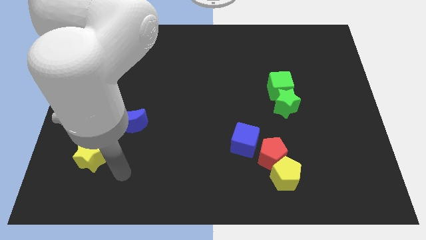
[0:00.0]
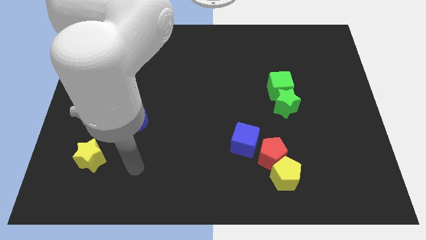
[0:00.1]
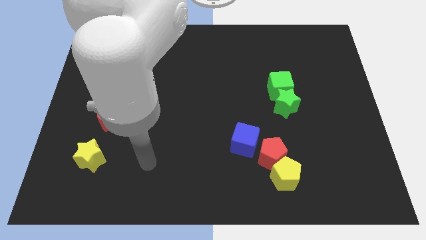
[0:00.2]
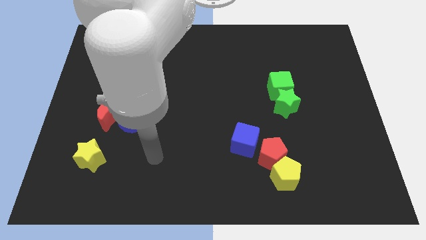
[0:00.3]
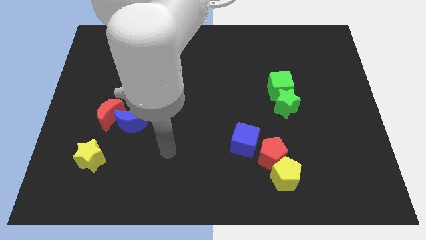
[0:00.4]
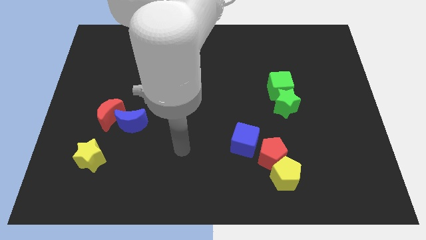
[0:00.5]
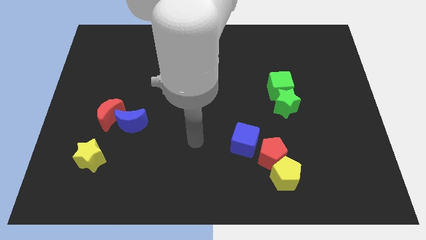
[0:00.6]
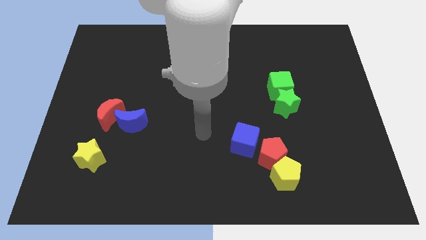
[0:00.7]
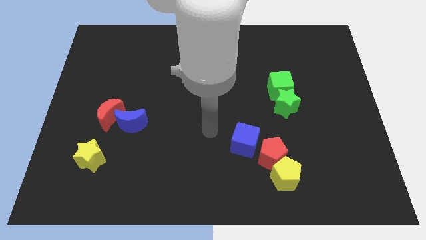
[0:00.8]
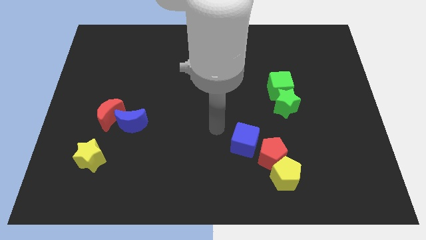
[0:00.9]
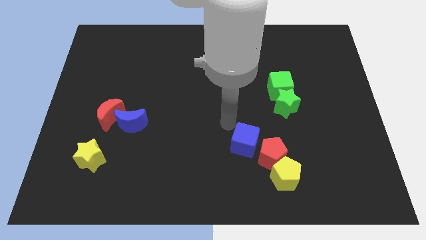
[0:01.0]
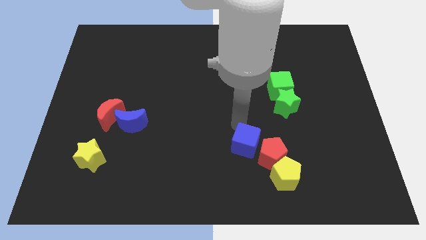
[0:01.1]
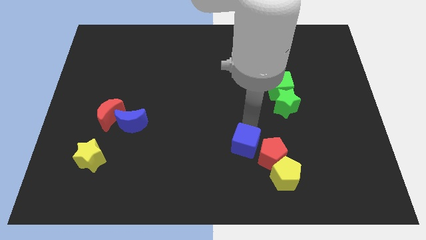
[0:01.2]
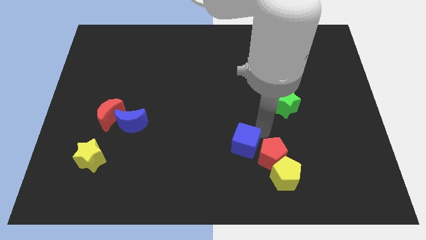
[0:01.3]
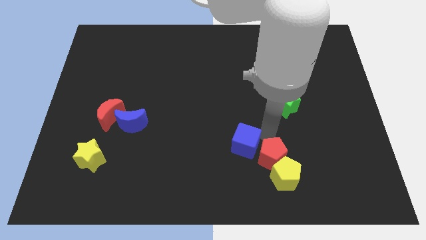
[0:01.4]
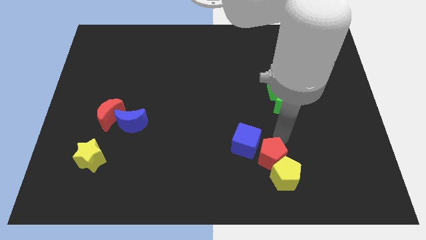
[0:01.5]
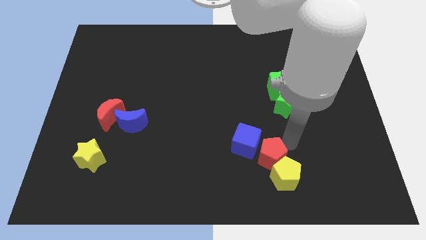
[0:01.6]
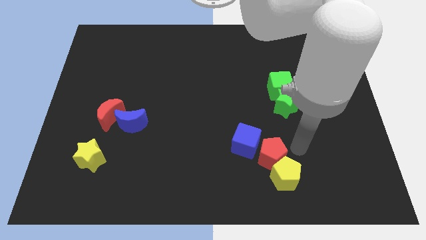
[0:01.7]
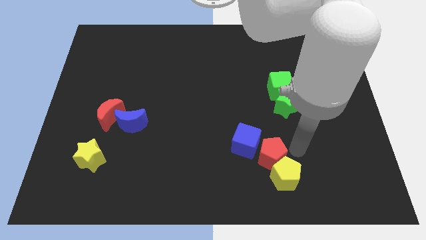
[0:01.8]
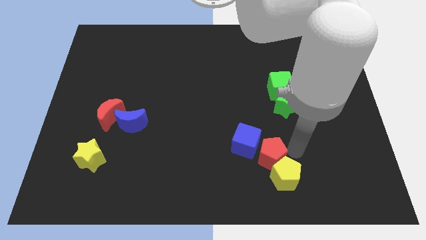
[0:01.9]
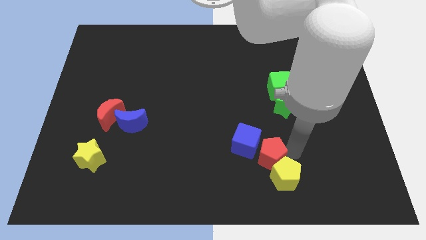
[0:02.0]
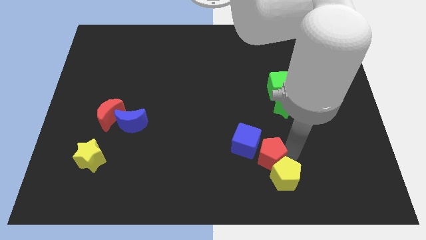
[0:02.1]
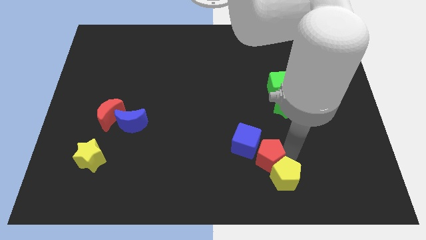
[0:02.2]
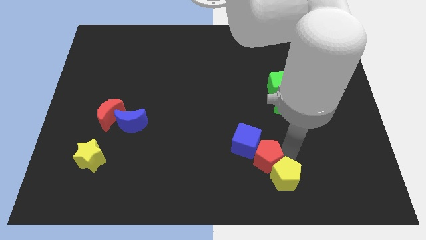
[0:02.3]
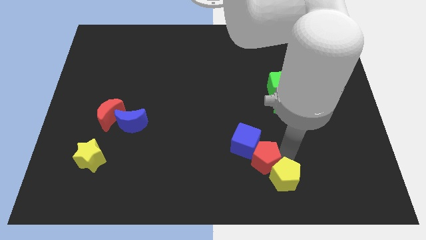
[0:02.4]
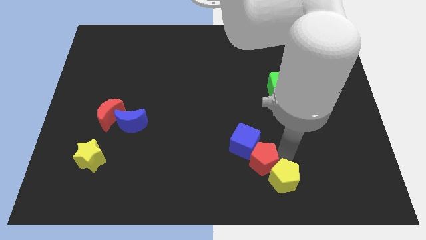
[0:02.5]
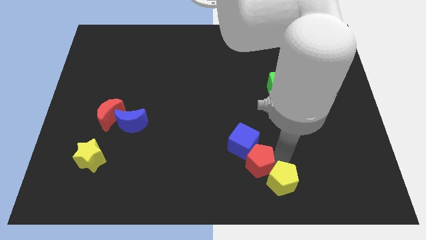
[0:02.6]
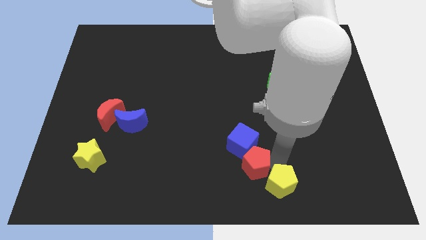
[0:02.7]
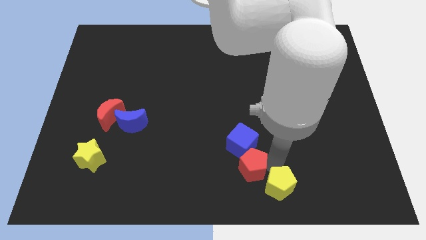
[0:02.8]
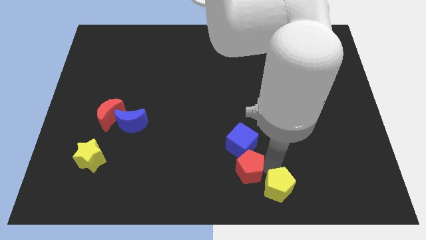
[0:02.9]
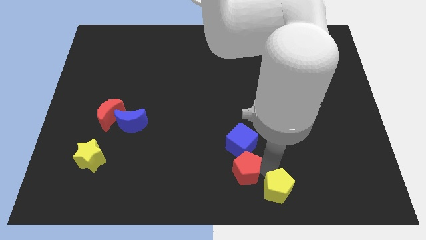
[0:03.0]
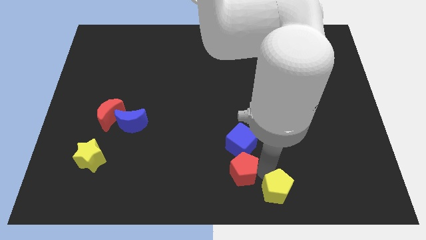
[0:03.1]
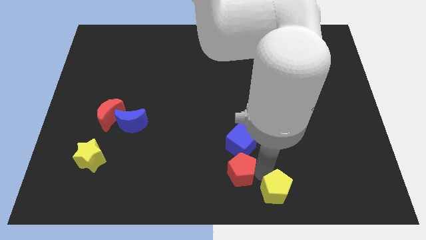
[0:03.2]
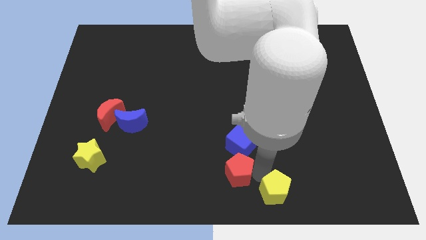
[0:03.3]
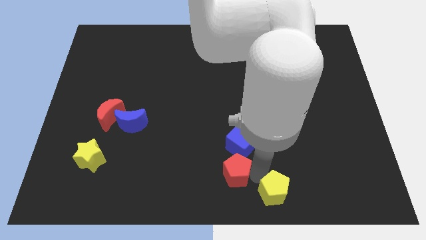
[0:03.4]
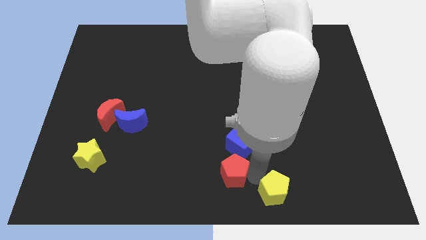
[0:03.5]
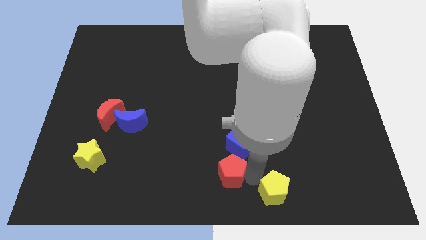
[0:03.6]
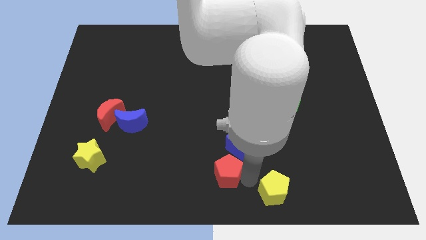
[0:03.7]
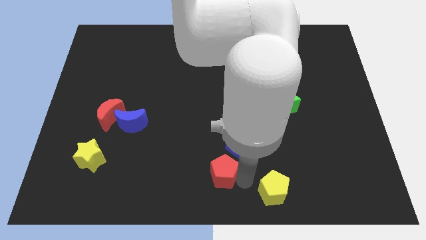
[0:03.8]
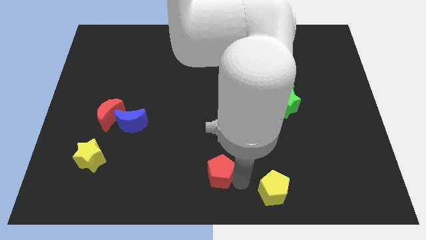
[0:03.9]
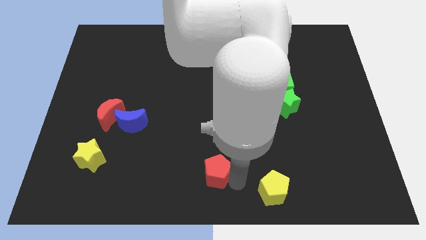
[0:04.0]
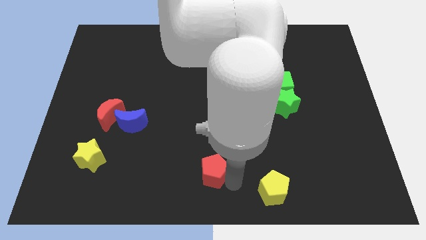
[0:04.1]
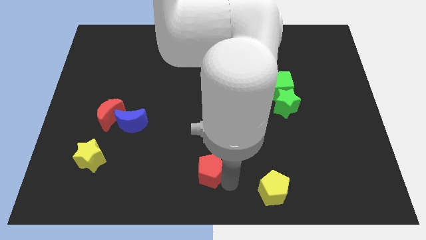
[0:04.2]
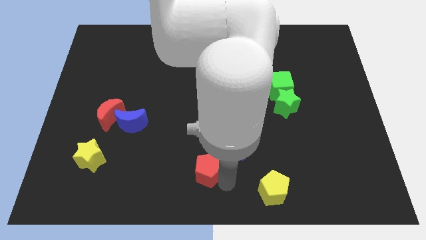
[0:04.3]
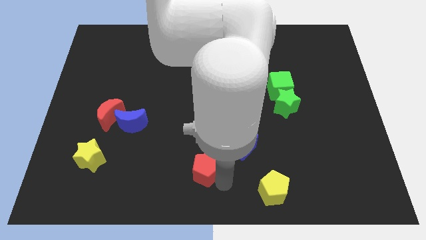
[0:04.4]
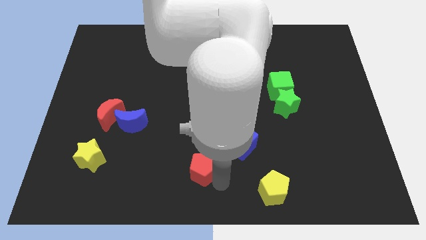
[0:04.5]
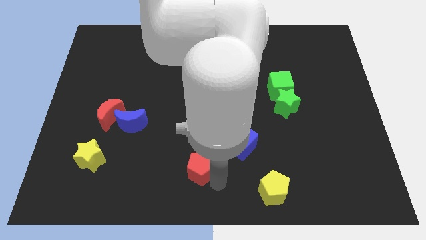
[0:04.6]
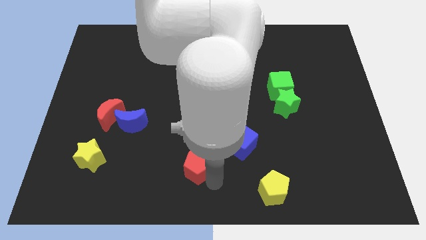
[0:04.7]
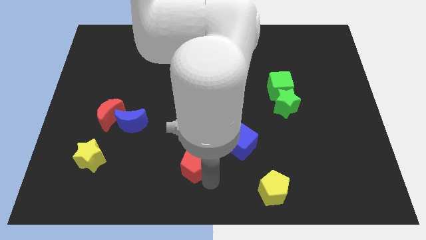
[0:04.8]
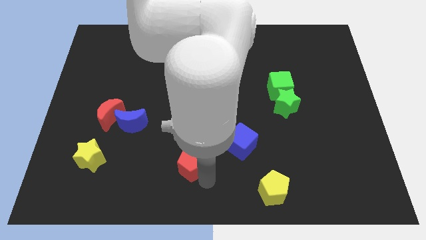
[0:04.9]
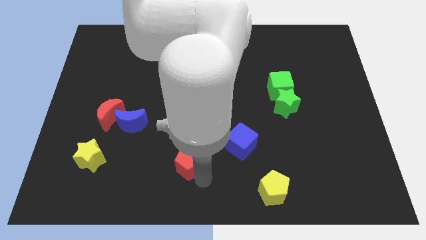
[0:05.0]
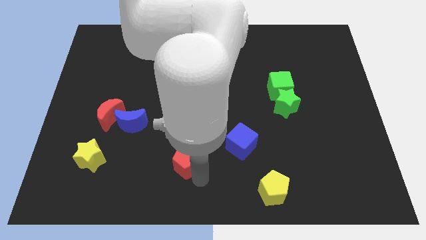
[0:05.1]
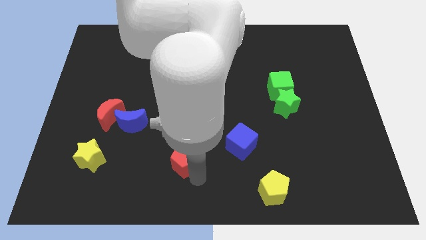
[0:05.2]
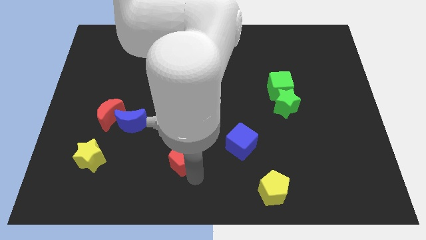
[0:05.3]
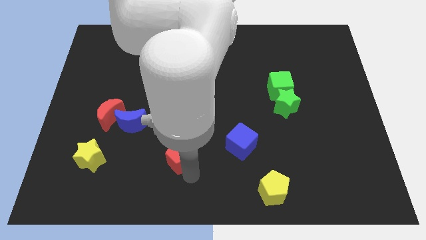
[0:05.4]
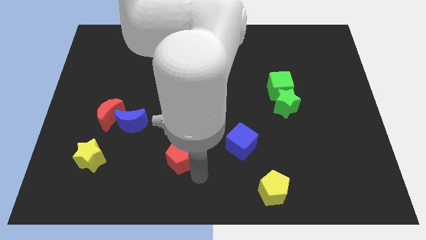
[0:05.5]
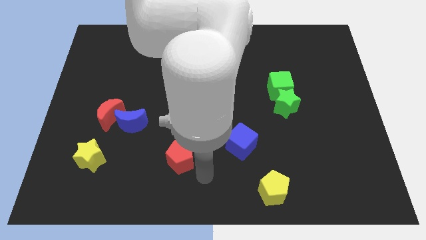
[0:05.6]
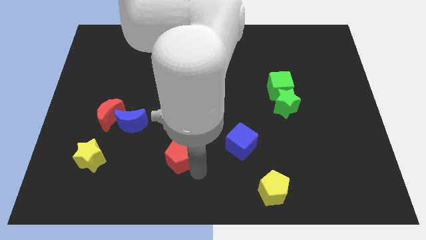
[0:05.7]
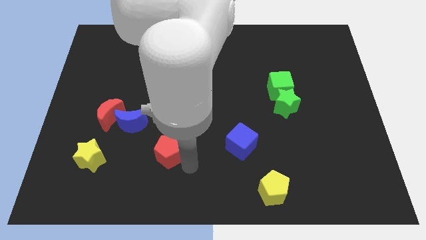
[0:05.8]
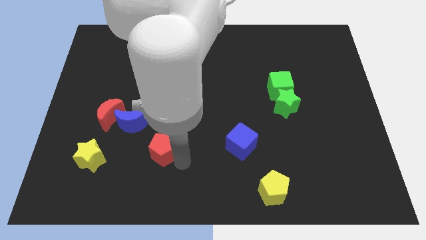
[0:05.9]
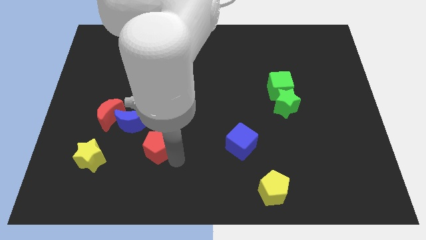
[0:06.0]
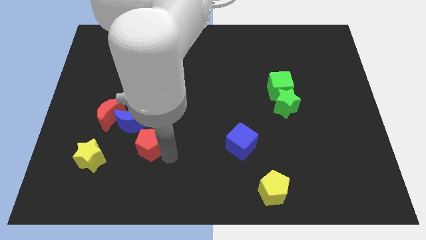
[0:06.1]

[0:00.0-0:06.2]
move the red pentagon to the bottom right of the red moon
